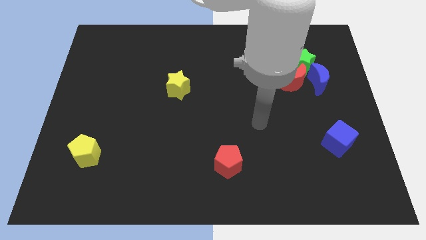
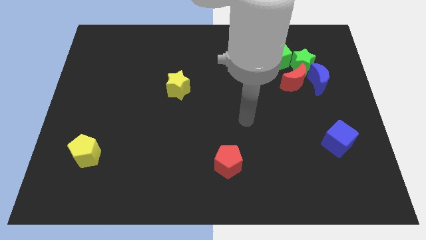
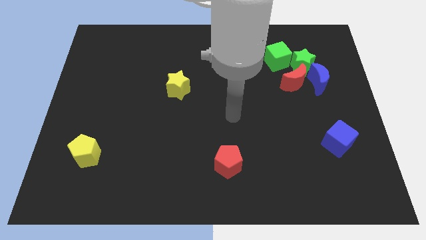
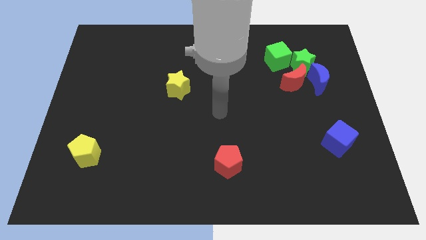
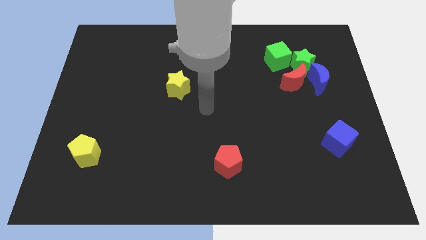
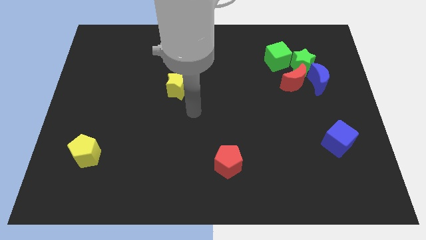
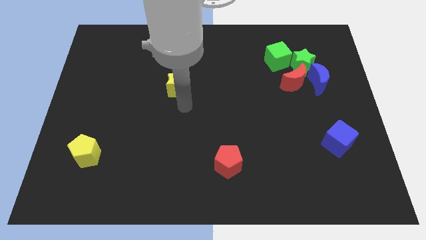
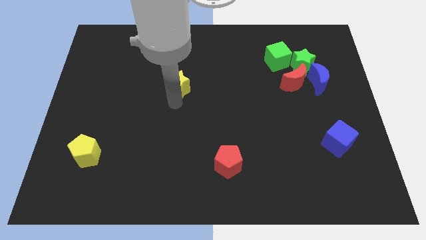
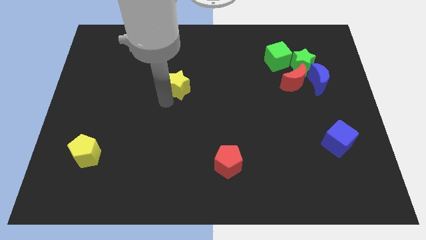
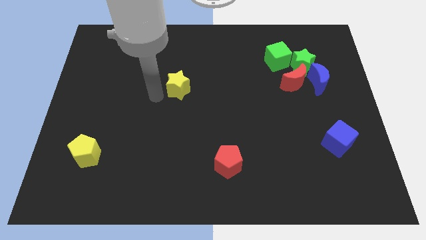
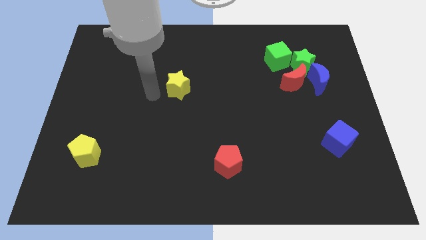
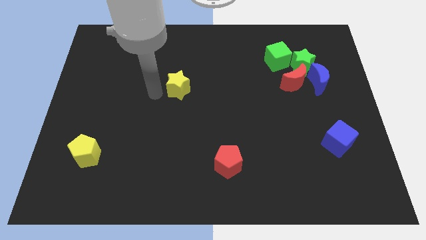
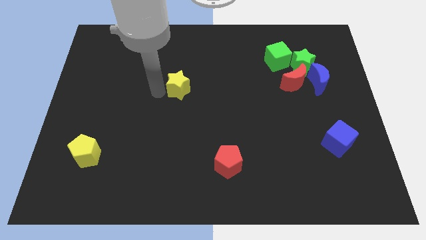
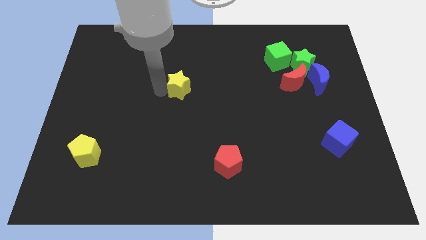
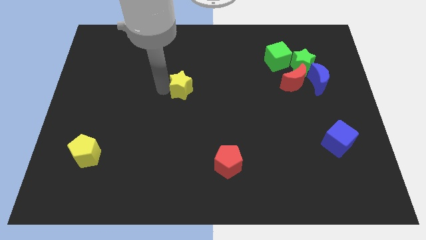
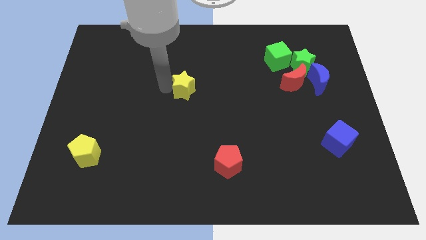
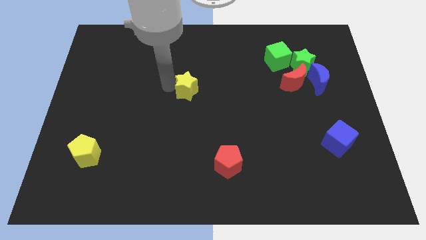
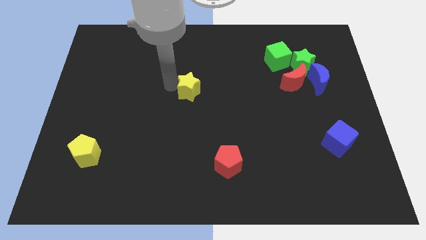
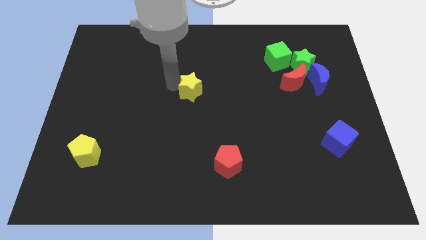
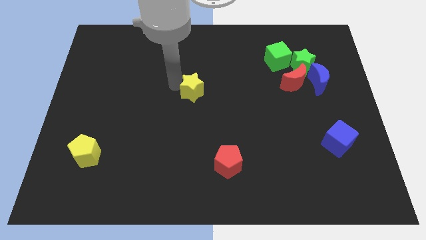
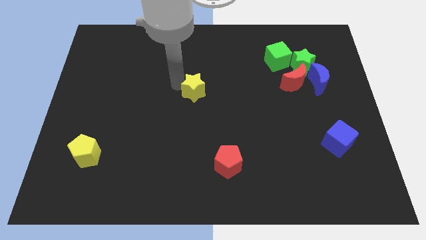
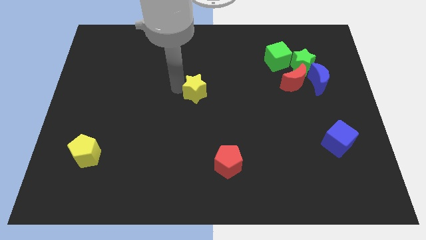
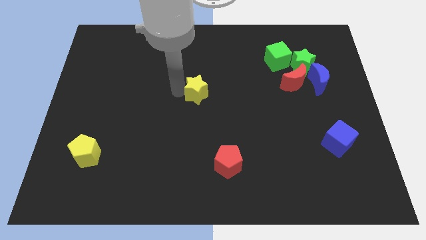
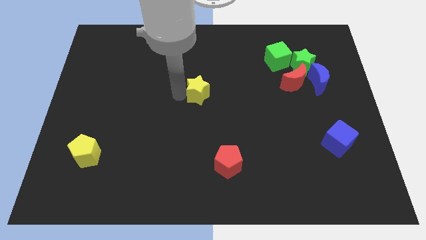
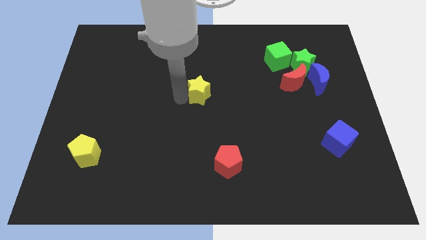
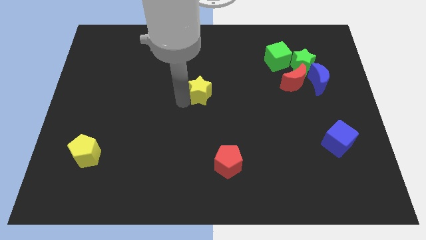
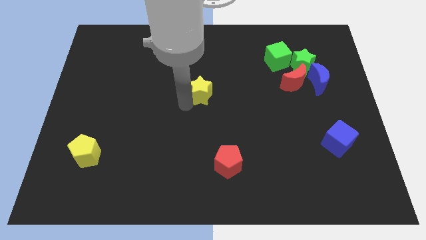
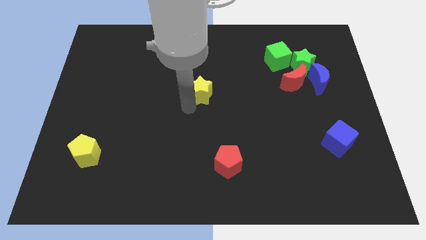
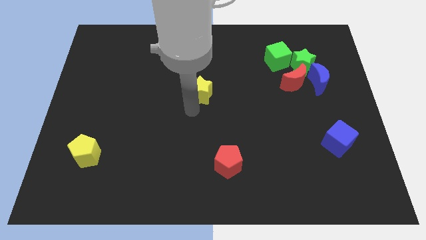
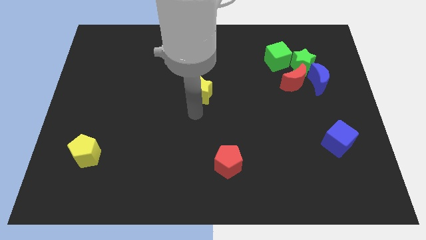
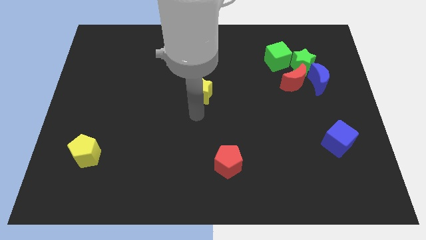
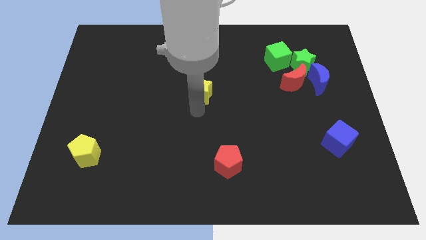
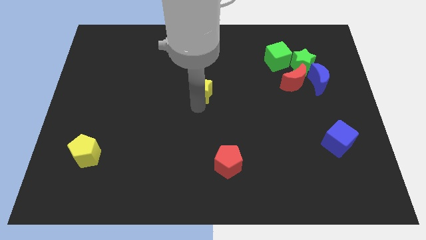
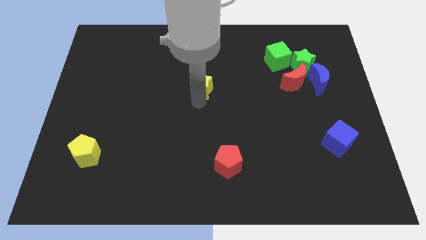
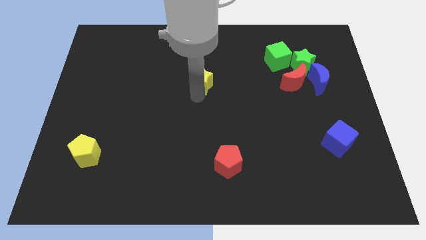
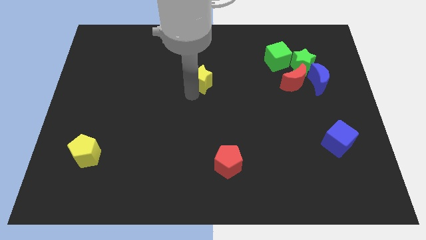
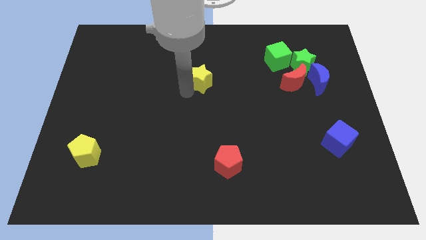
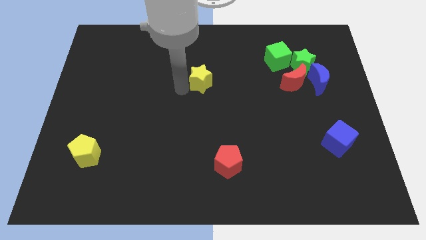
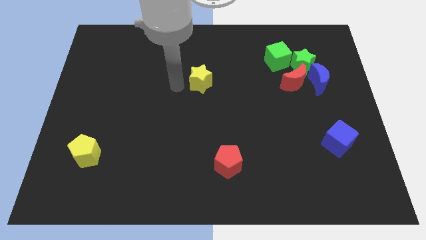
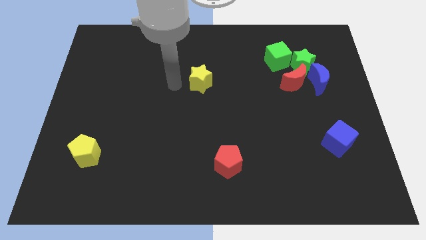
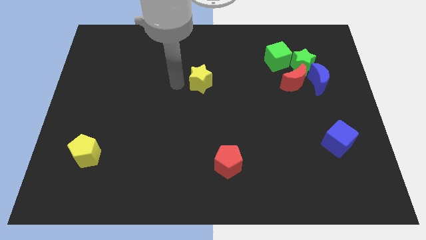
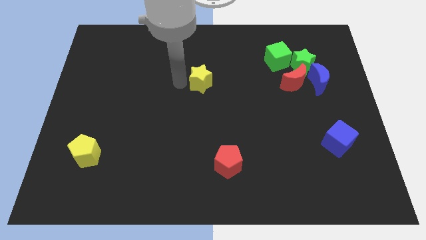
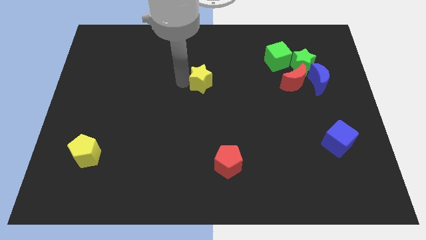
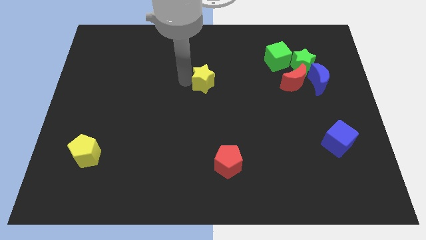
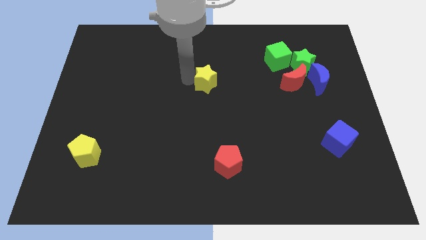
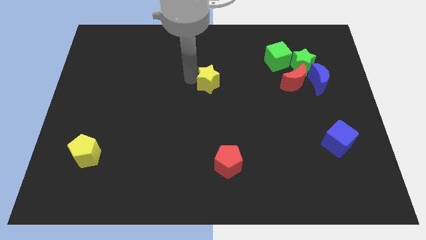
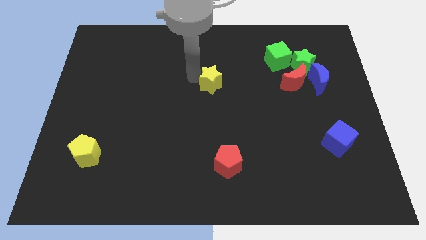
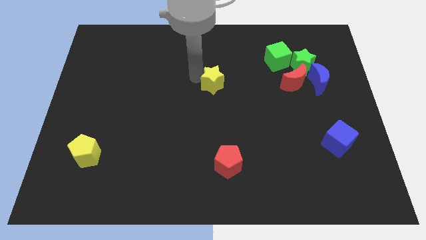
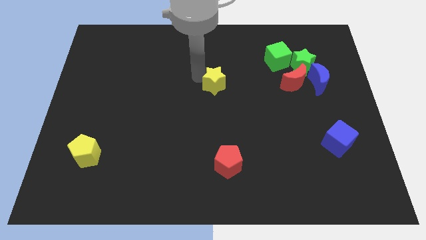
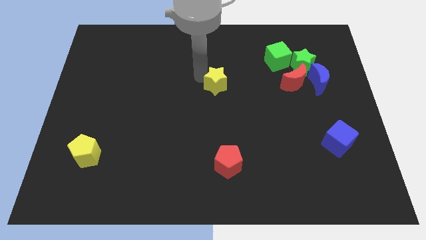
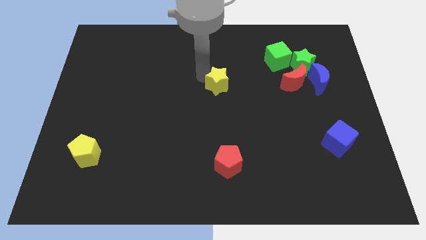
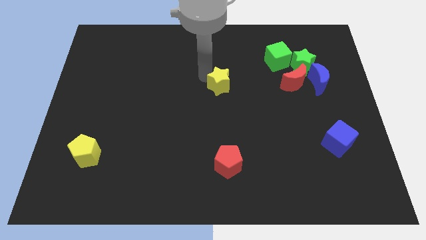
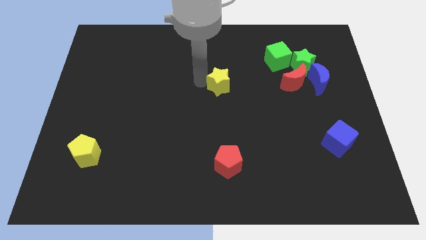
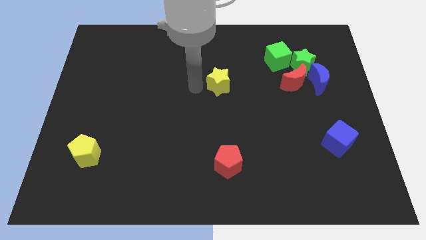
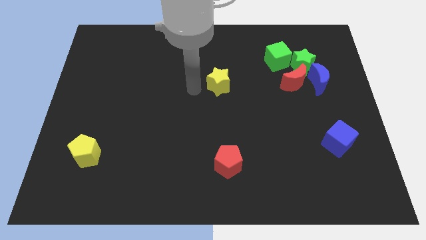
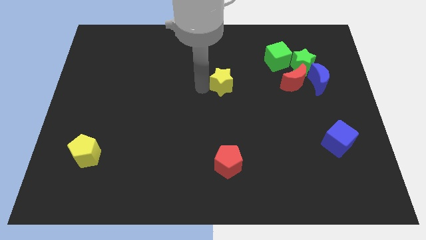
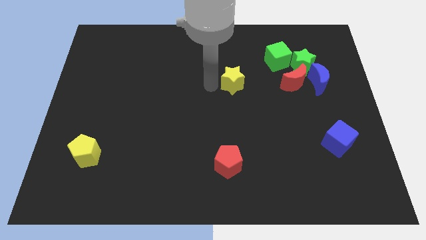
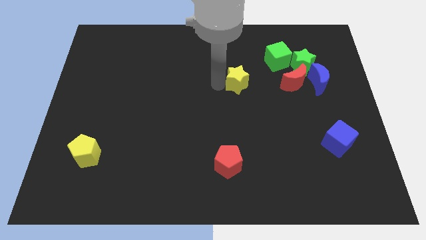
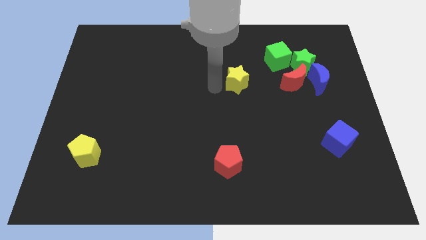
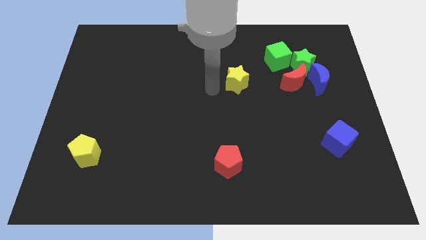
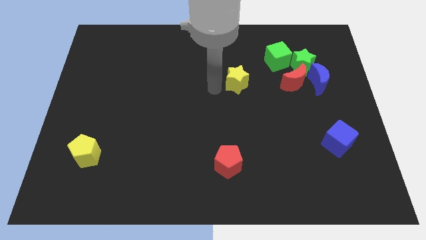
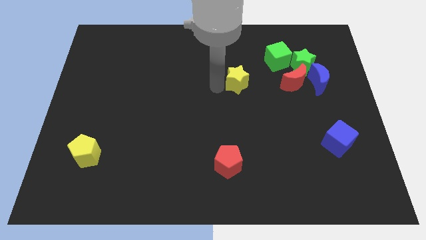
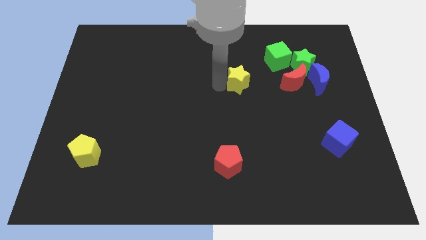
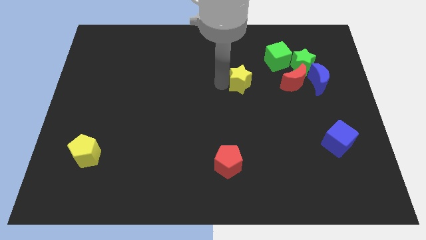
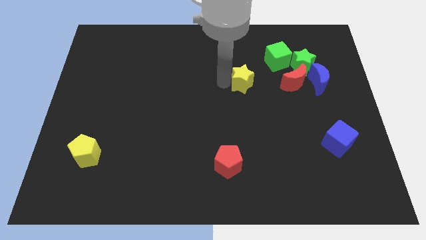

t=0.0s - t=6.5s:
push the yellow star diagonally down and to the left of the green cube
